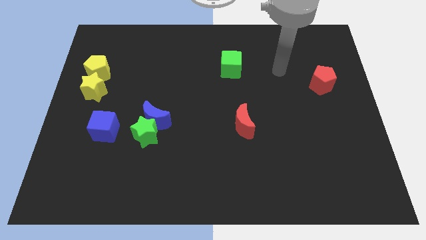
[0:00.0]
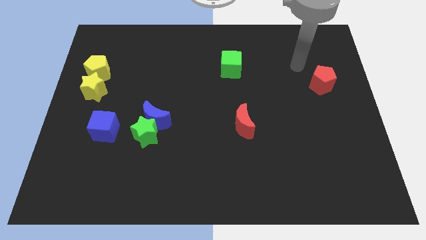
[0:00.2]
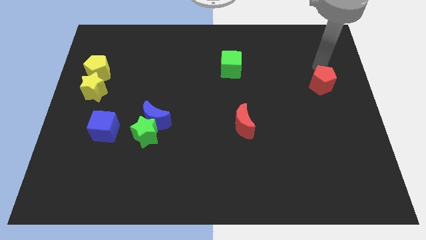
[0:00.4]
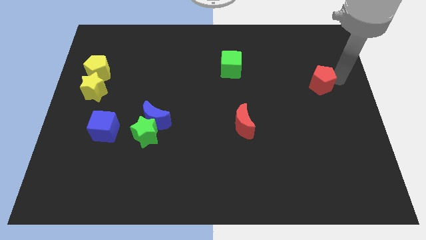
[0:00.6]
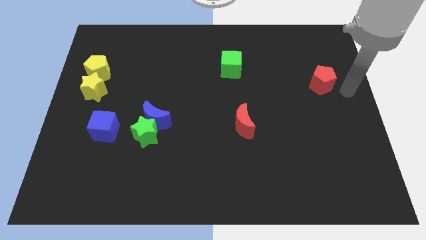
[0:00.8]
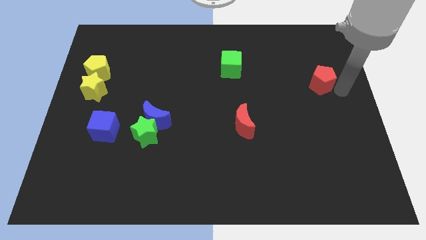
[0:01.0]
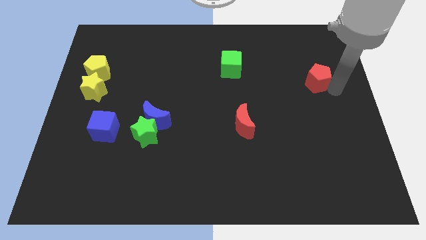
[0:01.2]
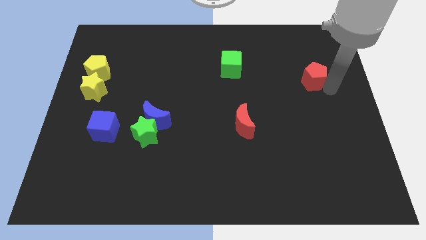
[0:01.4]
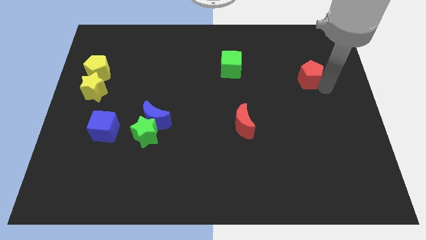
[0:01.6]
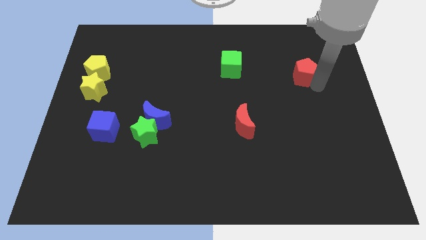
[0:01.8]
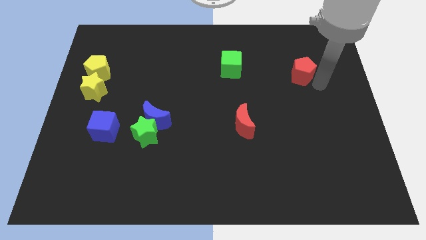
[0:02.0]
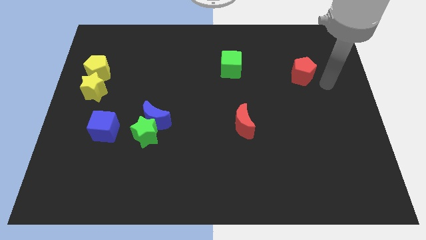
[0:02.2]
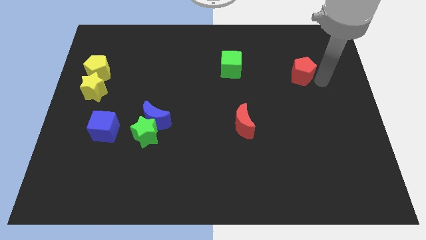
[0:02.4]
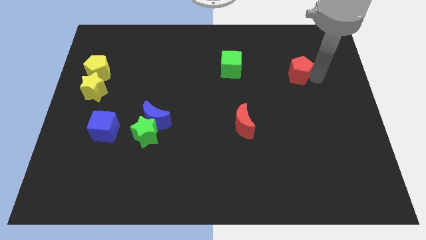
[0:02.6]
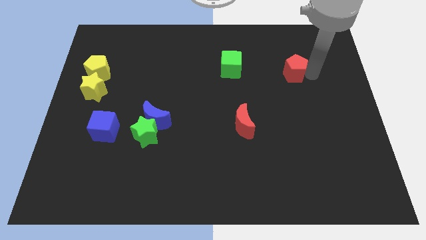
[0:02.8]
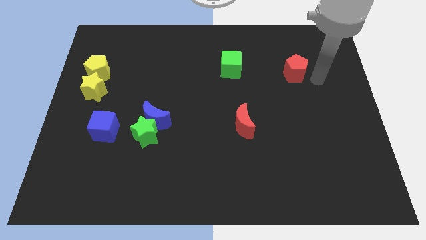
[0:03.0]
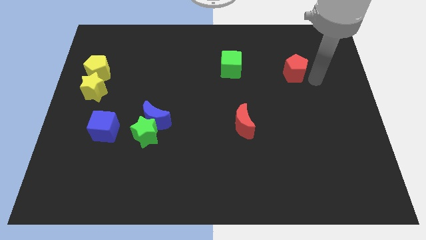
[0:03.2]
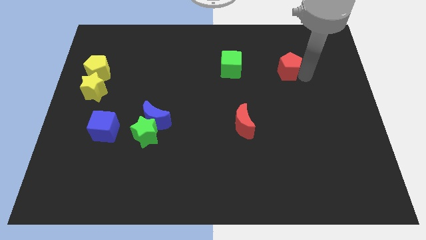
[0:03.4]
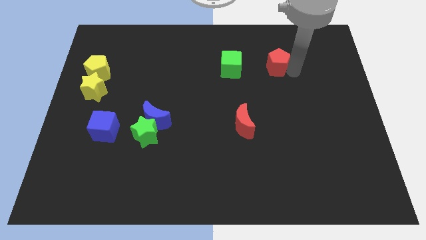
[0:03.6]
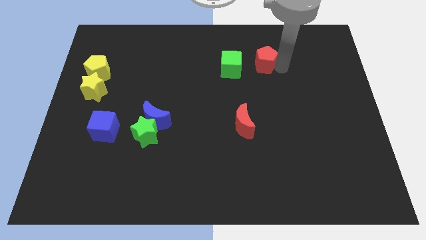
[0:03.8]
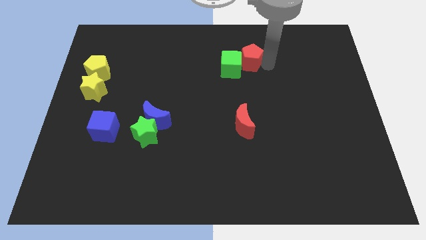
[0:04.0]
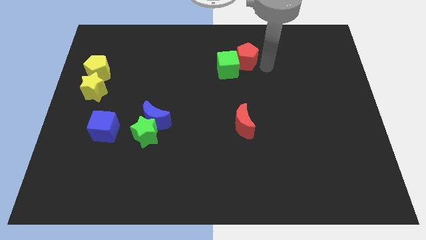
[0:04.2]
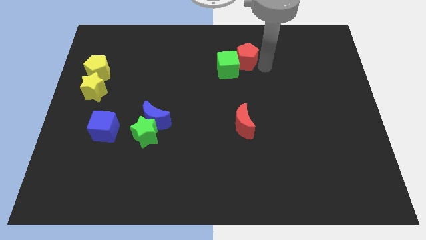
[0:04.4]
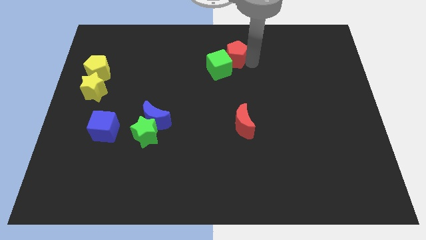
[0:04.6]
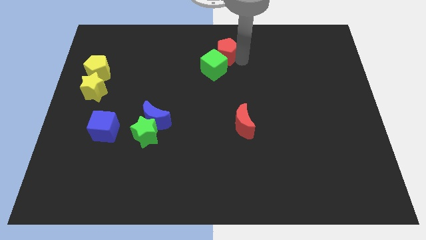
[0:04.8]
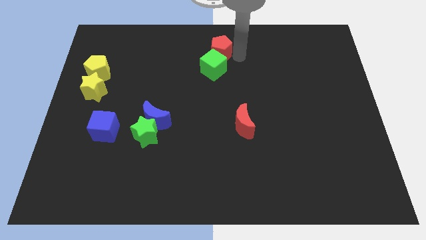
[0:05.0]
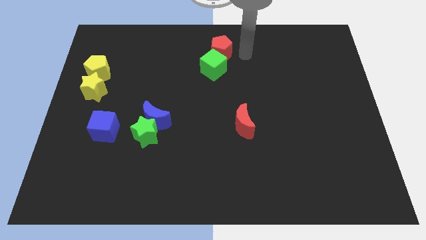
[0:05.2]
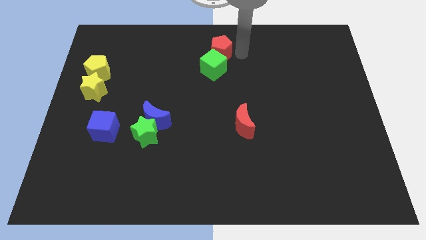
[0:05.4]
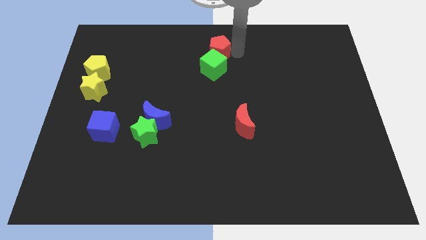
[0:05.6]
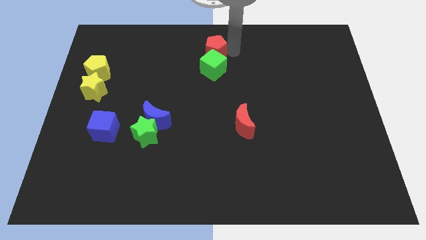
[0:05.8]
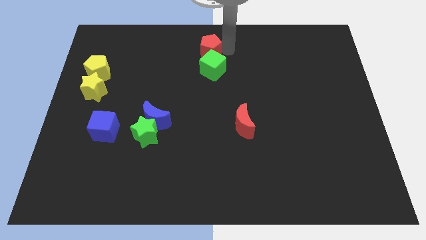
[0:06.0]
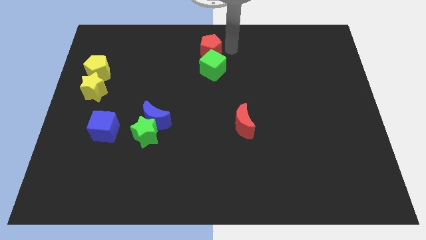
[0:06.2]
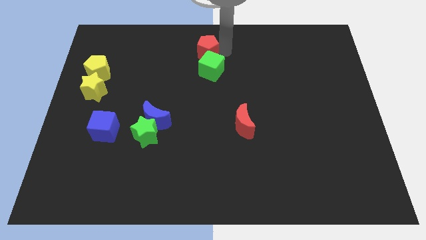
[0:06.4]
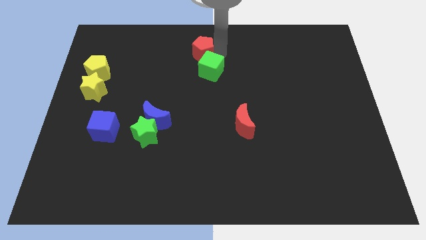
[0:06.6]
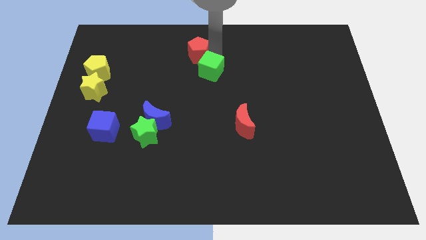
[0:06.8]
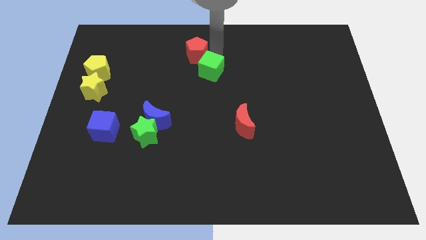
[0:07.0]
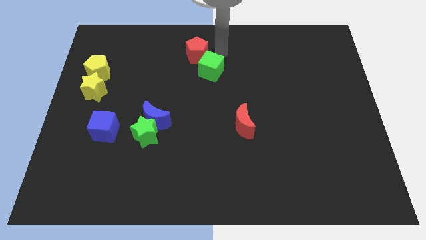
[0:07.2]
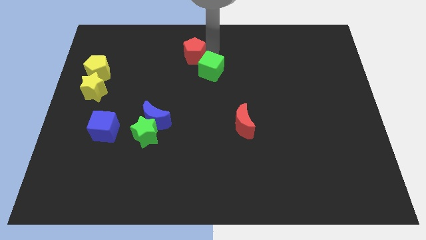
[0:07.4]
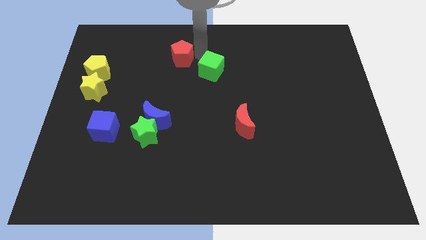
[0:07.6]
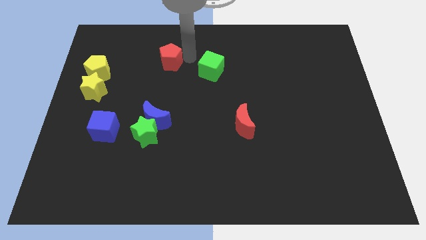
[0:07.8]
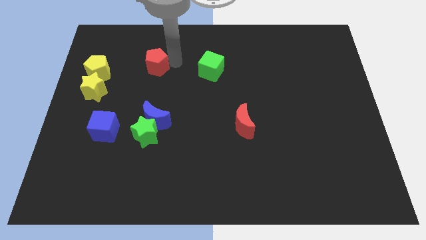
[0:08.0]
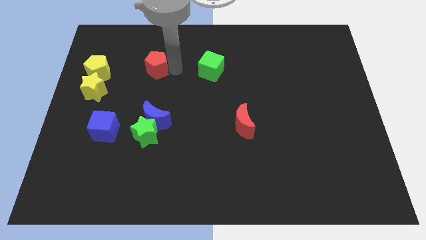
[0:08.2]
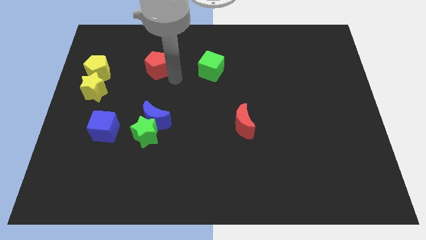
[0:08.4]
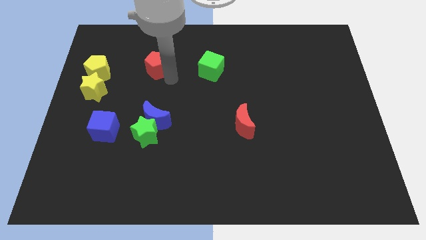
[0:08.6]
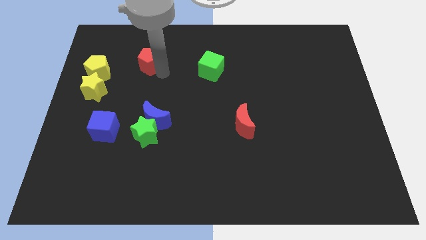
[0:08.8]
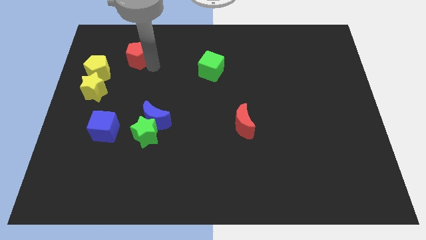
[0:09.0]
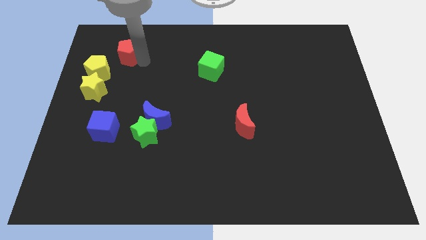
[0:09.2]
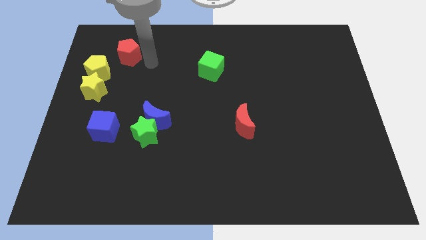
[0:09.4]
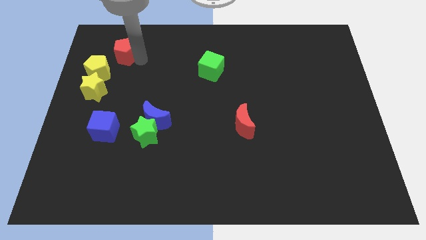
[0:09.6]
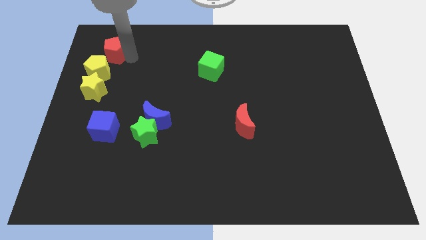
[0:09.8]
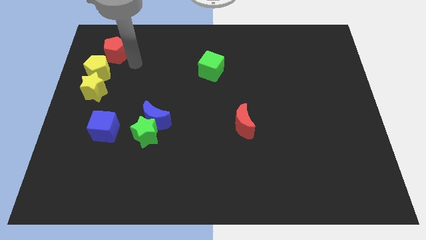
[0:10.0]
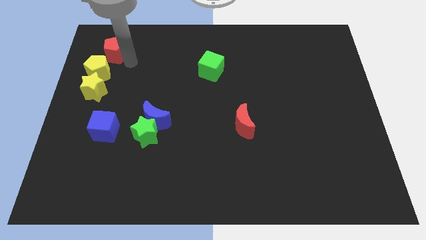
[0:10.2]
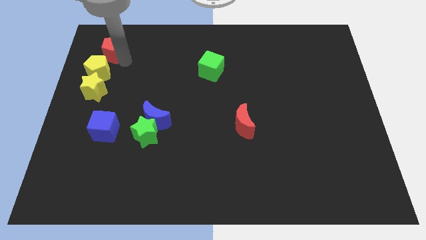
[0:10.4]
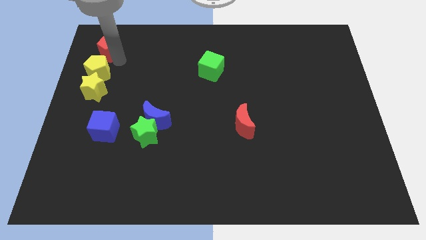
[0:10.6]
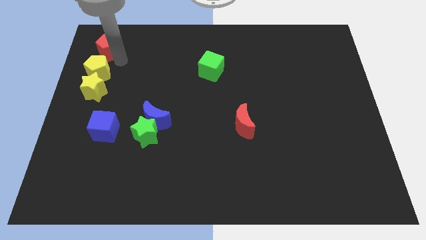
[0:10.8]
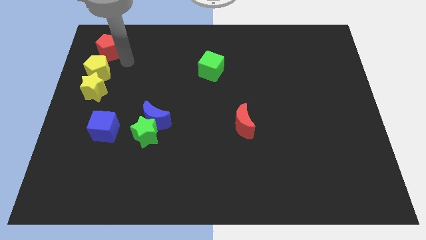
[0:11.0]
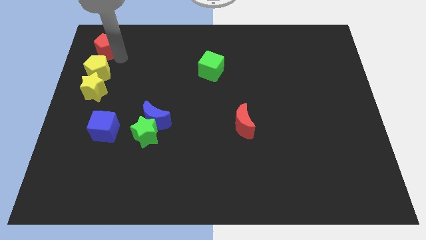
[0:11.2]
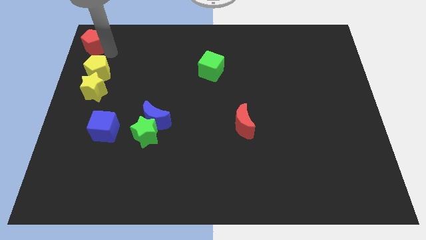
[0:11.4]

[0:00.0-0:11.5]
slide the red pentagon to the upper left corner

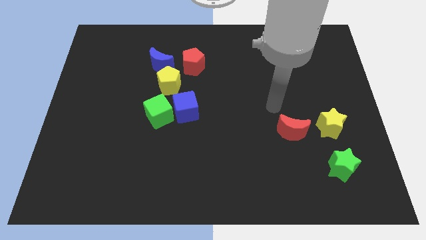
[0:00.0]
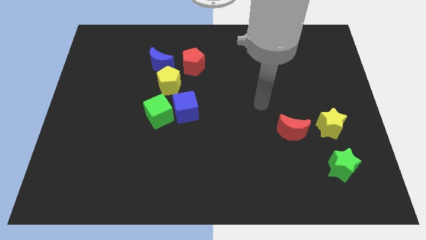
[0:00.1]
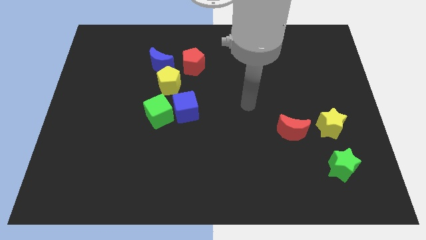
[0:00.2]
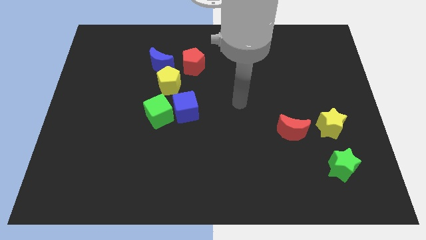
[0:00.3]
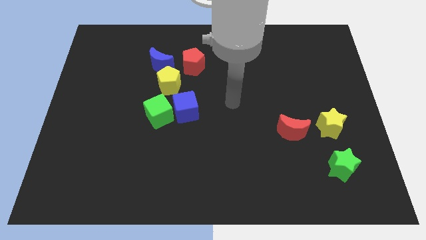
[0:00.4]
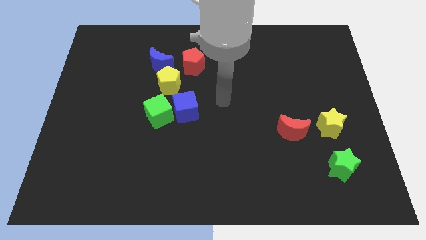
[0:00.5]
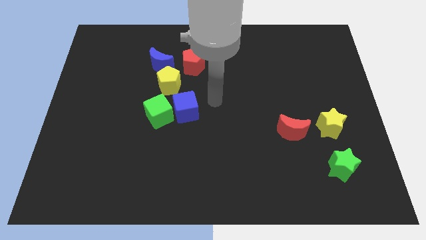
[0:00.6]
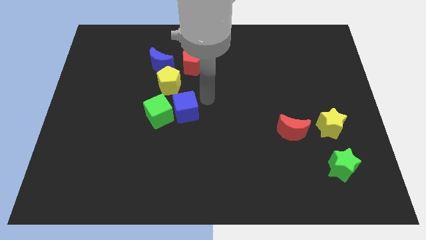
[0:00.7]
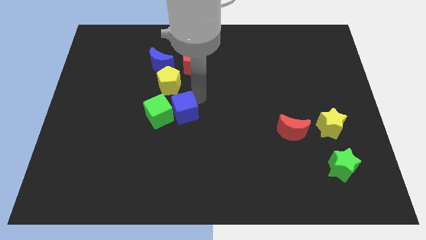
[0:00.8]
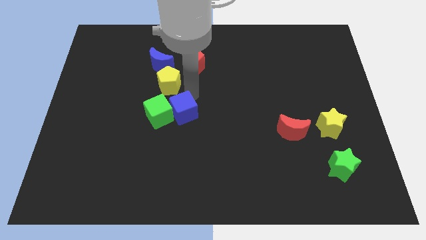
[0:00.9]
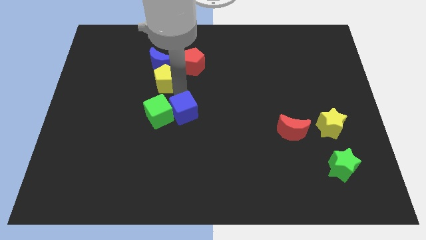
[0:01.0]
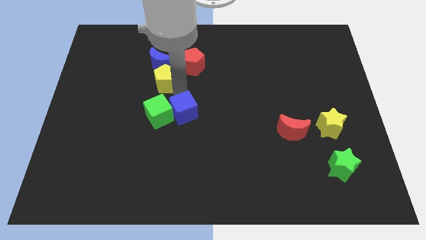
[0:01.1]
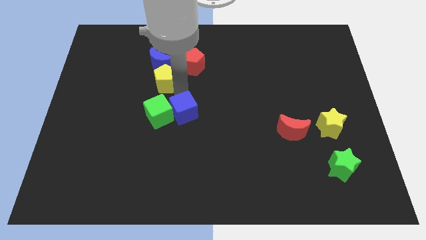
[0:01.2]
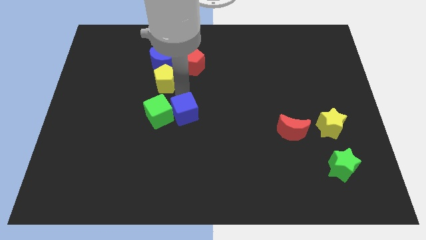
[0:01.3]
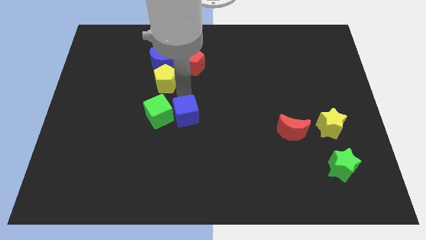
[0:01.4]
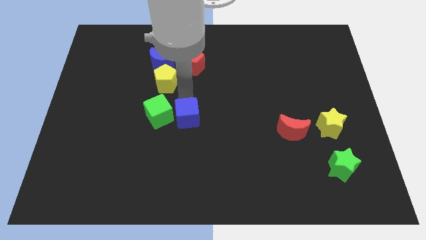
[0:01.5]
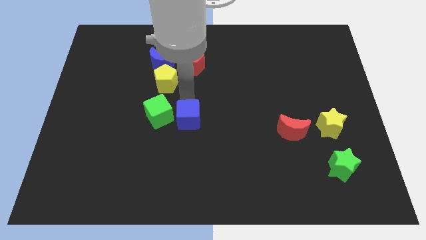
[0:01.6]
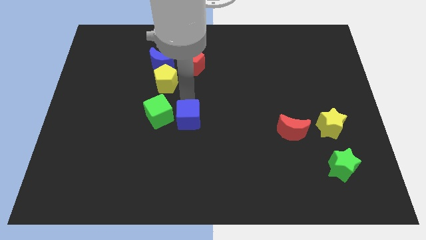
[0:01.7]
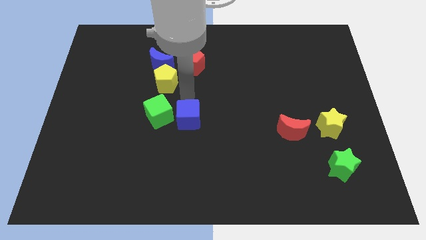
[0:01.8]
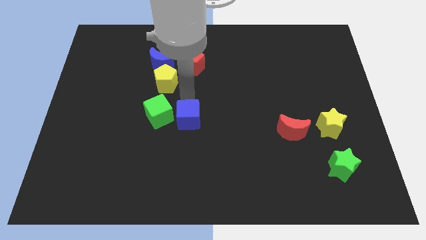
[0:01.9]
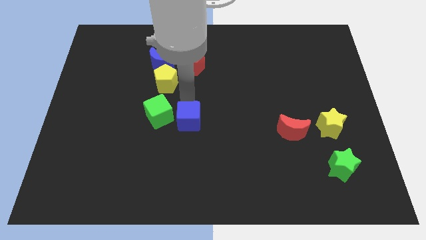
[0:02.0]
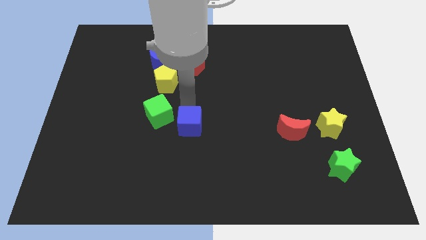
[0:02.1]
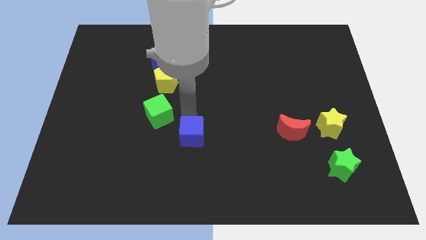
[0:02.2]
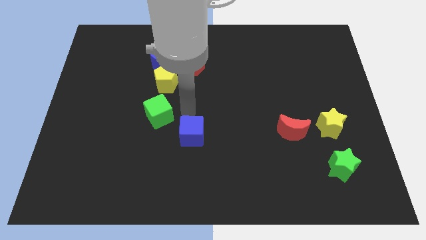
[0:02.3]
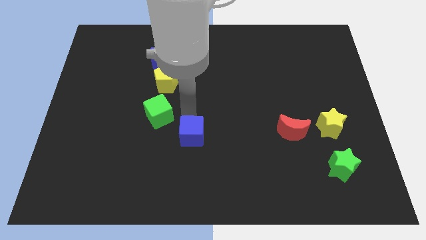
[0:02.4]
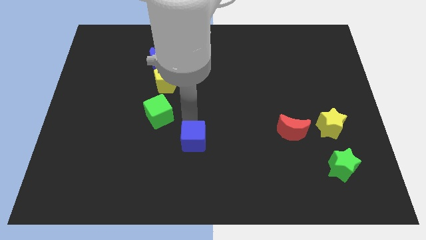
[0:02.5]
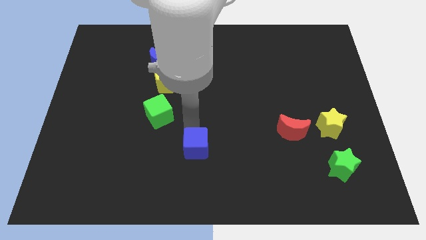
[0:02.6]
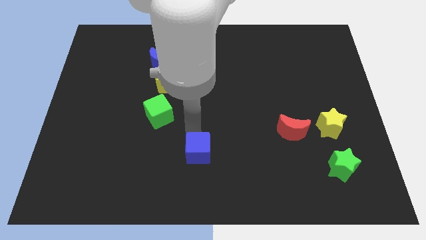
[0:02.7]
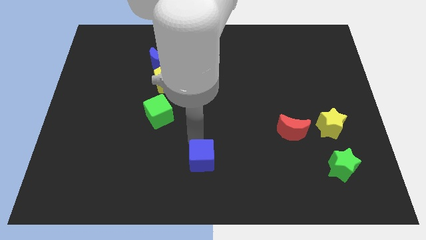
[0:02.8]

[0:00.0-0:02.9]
put the blue cube to the bottom side
